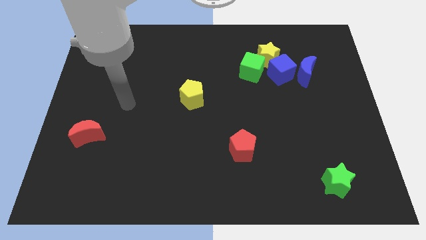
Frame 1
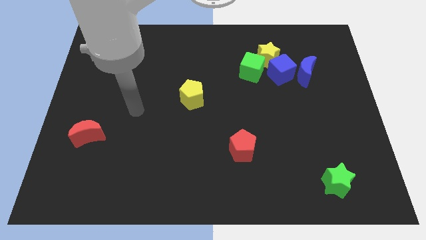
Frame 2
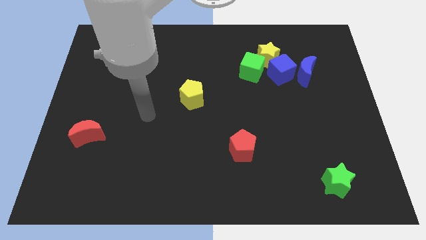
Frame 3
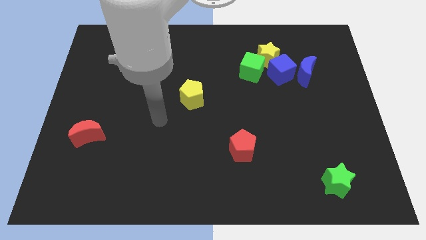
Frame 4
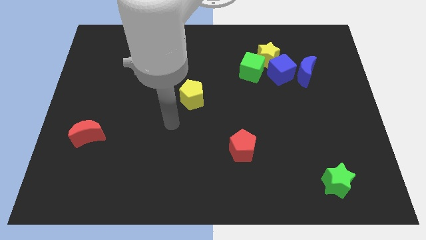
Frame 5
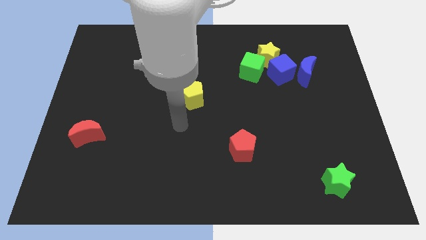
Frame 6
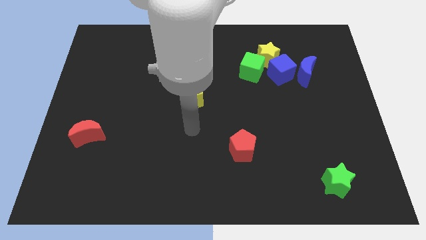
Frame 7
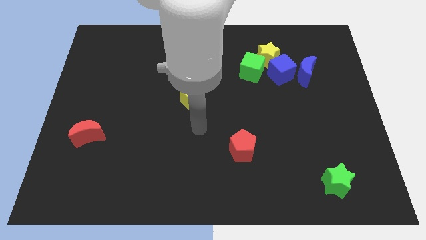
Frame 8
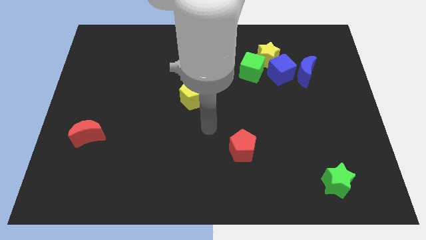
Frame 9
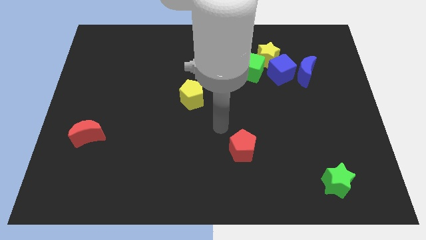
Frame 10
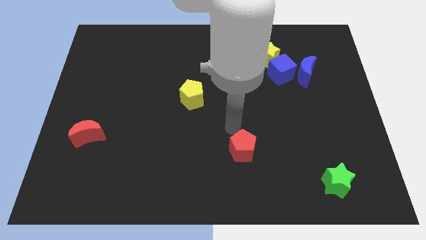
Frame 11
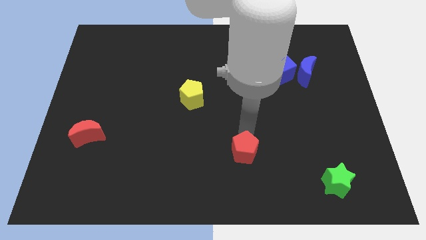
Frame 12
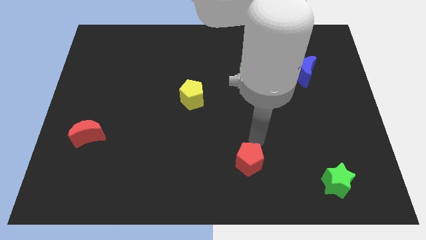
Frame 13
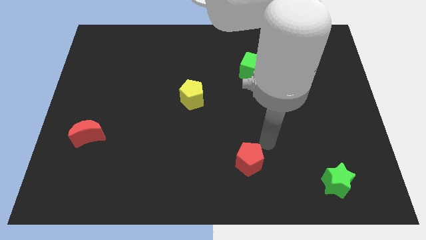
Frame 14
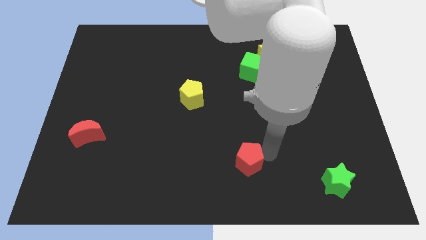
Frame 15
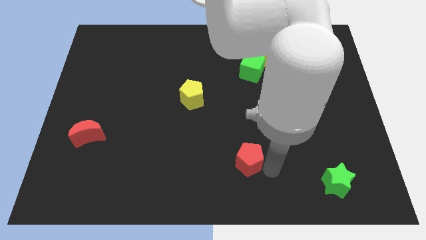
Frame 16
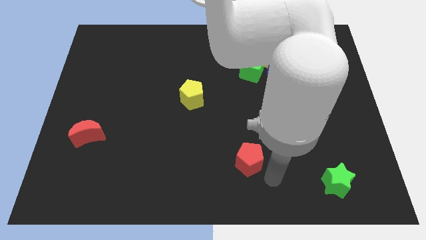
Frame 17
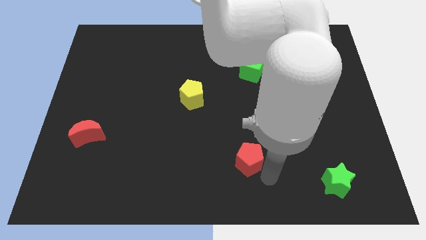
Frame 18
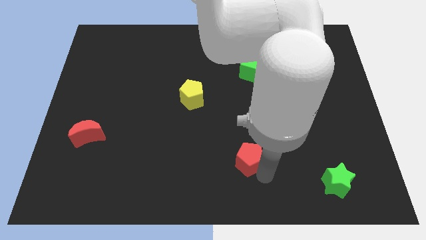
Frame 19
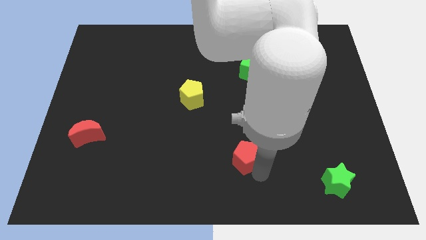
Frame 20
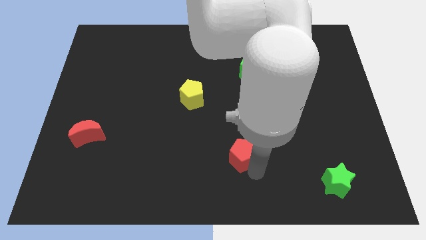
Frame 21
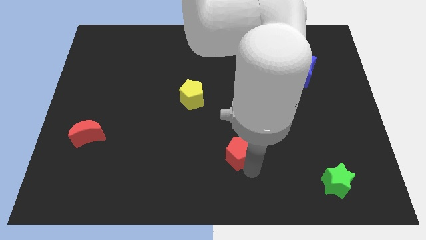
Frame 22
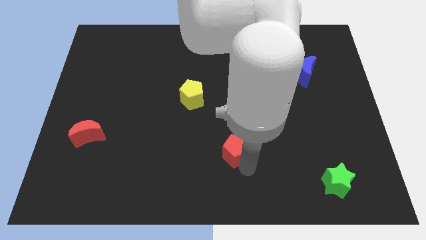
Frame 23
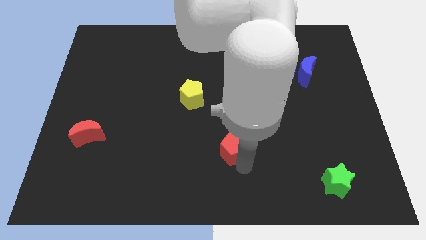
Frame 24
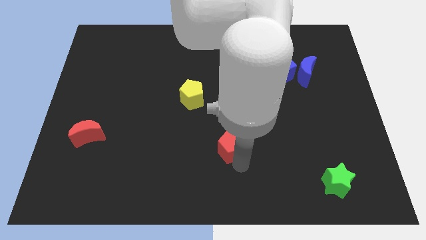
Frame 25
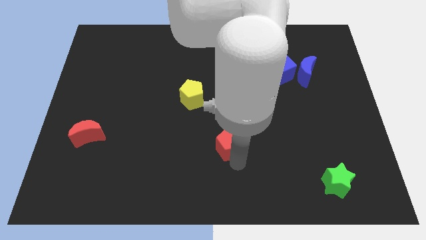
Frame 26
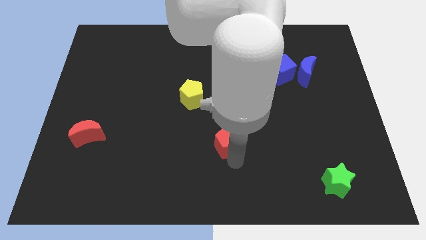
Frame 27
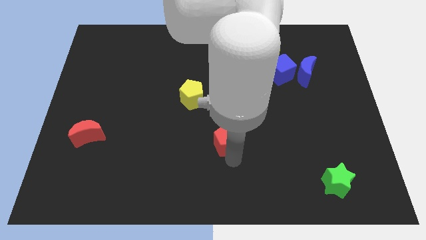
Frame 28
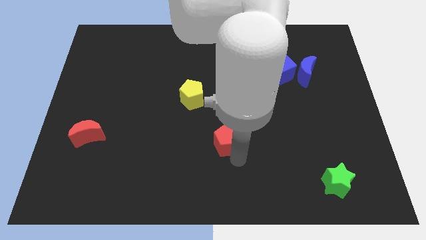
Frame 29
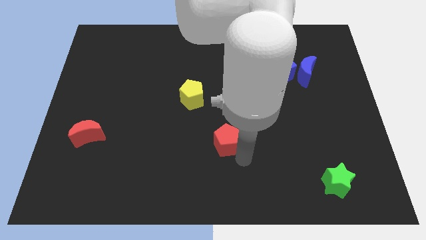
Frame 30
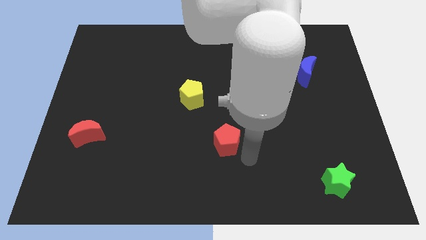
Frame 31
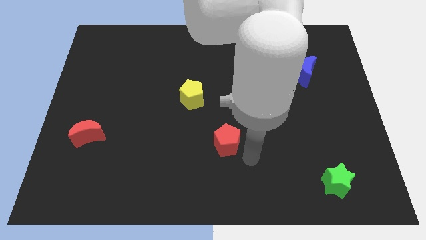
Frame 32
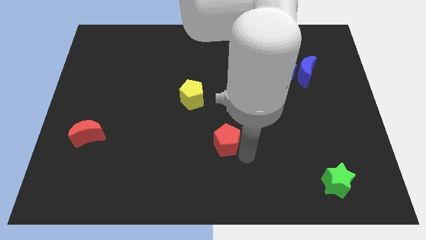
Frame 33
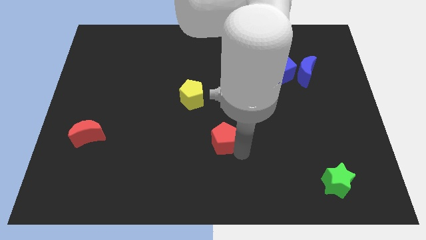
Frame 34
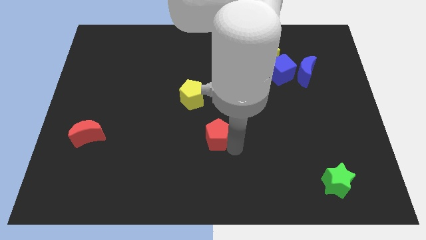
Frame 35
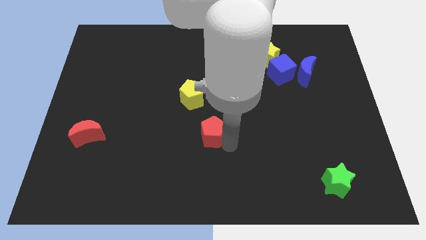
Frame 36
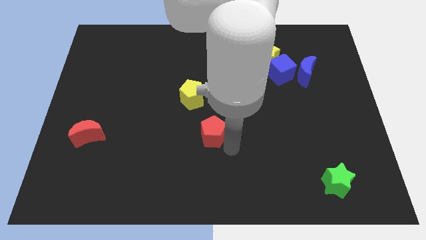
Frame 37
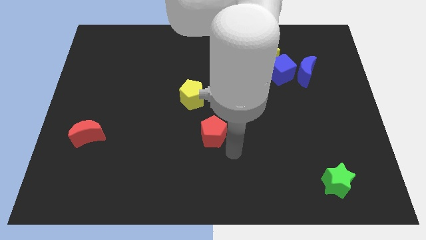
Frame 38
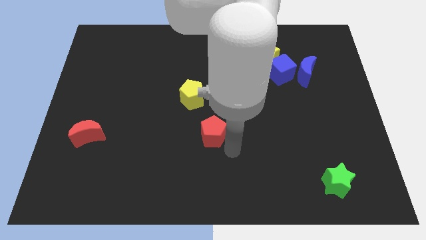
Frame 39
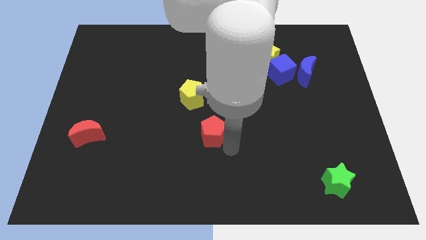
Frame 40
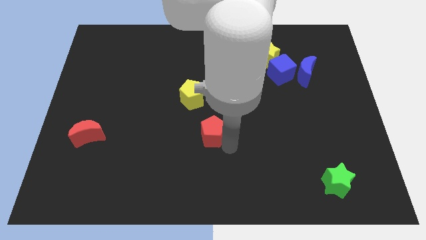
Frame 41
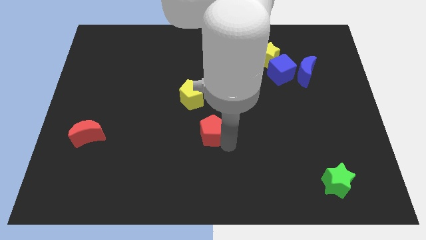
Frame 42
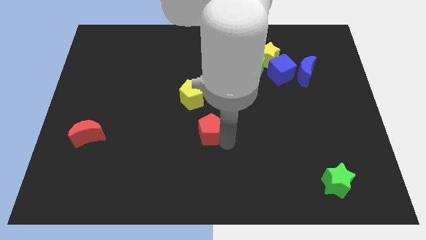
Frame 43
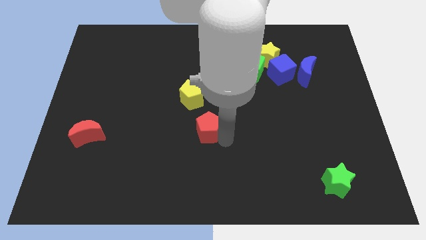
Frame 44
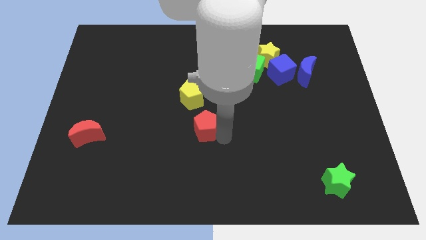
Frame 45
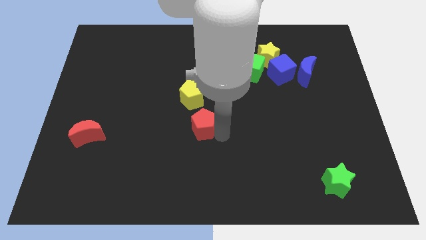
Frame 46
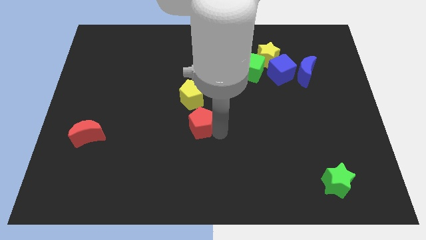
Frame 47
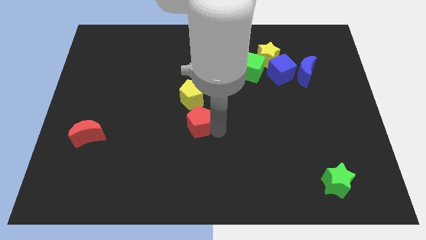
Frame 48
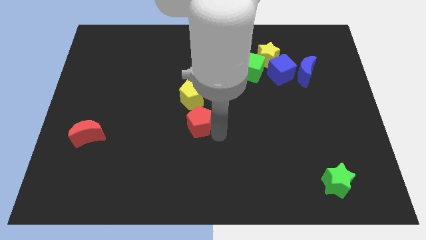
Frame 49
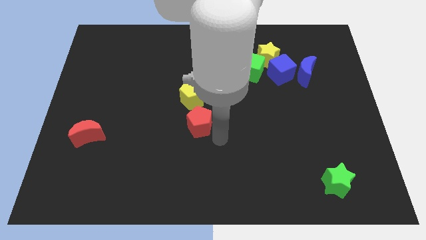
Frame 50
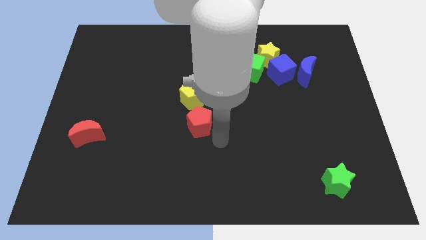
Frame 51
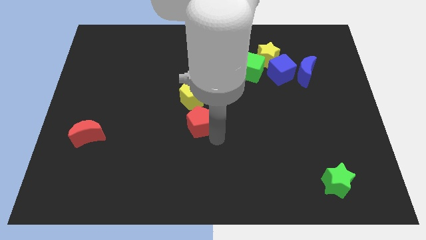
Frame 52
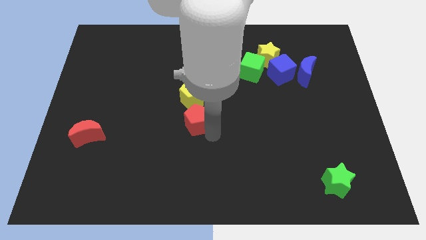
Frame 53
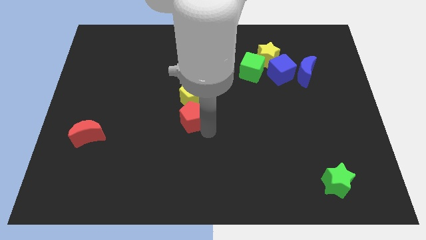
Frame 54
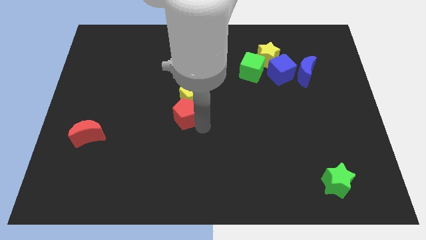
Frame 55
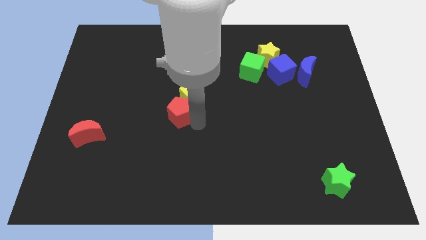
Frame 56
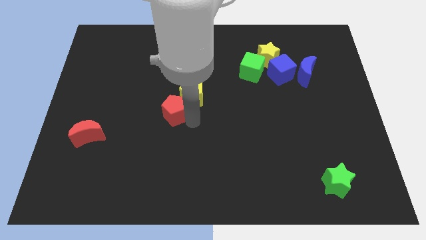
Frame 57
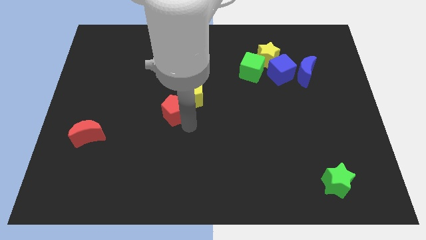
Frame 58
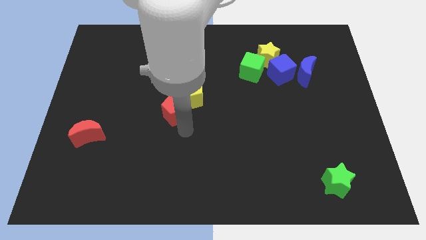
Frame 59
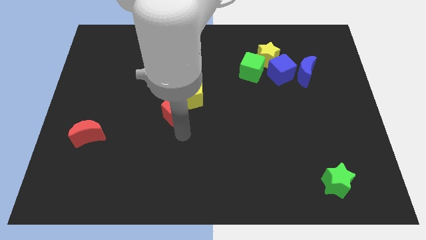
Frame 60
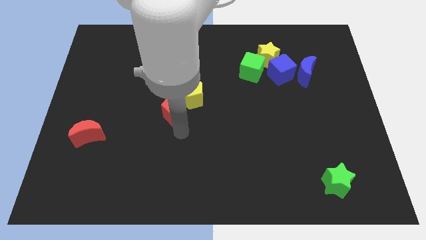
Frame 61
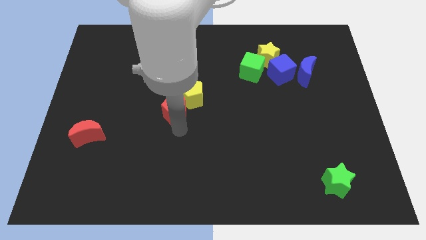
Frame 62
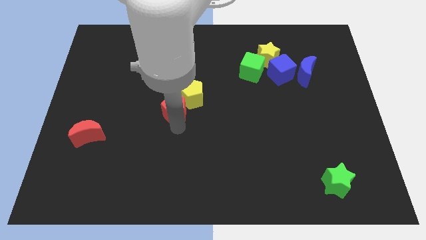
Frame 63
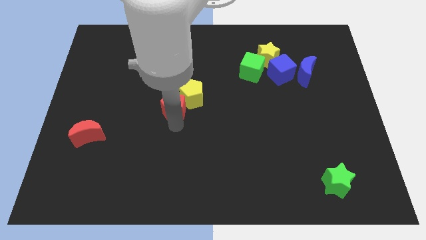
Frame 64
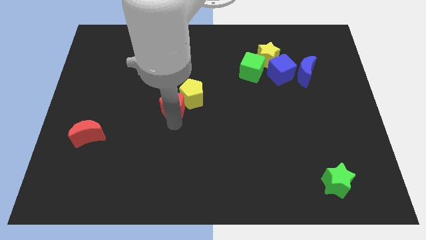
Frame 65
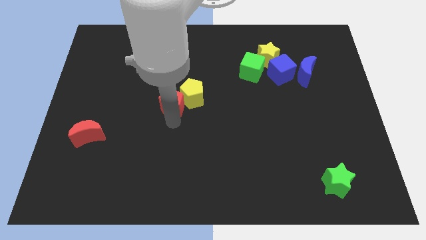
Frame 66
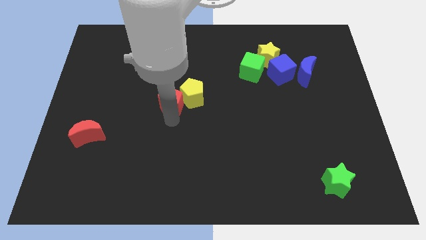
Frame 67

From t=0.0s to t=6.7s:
push the red pentagon up and to the left

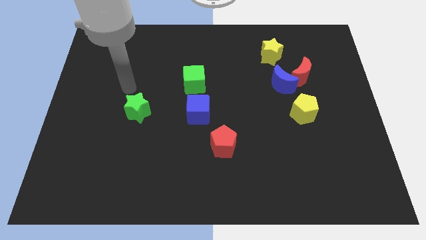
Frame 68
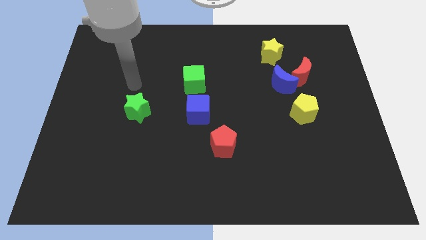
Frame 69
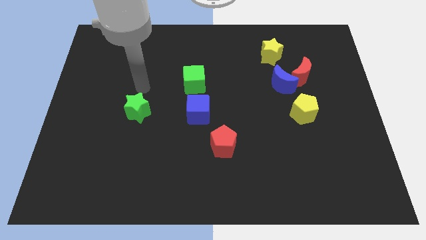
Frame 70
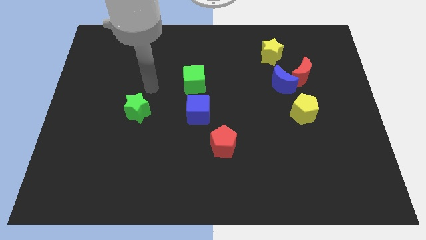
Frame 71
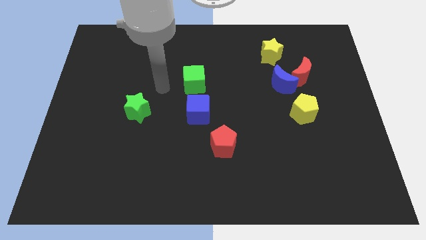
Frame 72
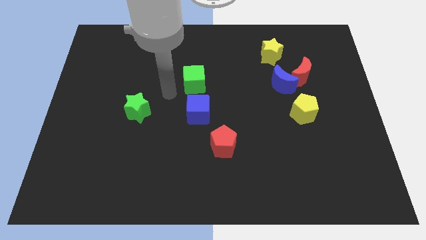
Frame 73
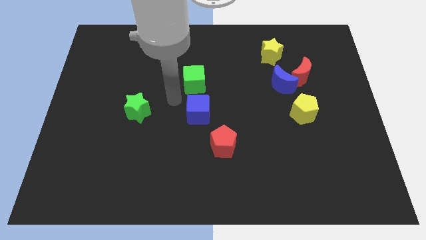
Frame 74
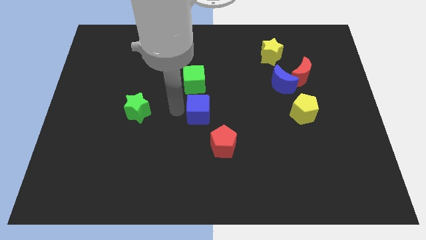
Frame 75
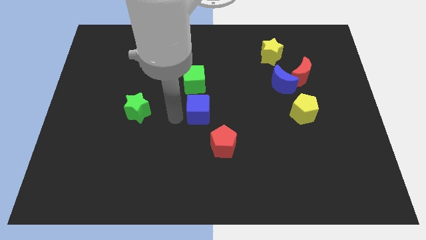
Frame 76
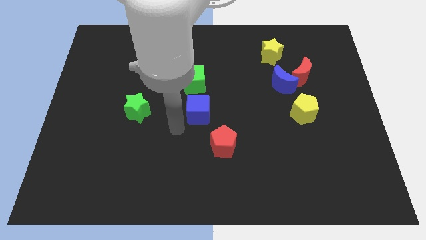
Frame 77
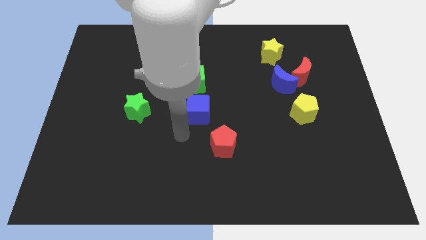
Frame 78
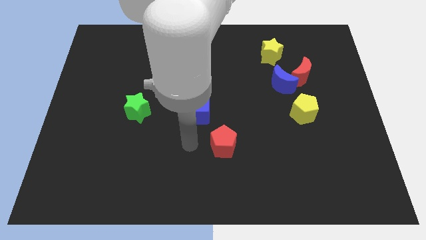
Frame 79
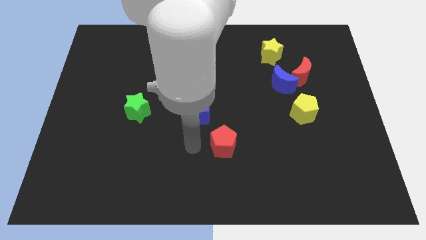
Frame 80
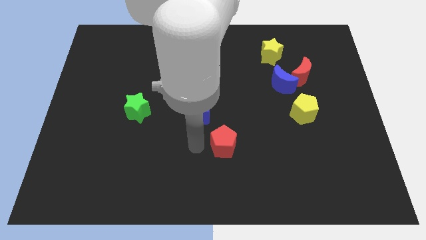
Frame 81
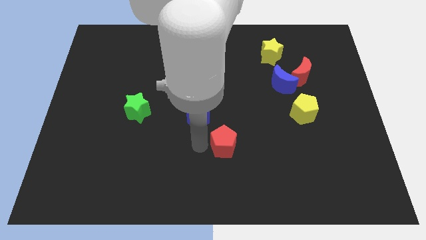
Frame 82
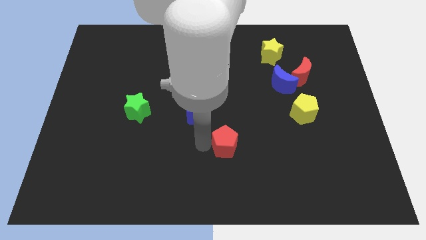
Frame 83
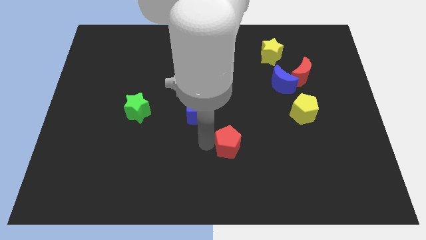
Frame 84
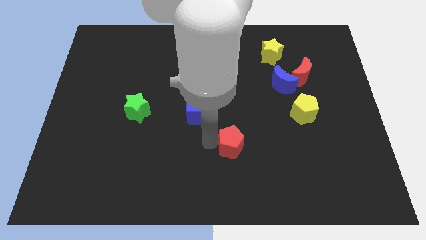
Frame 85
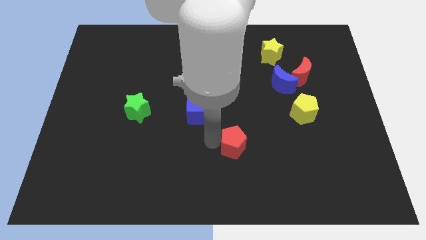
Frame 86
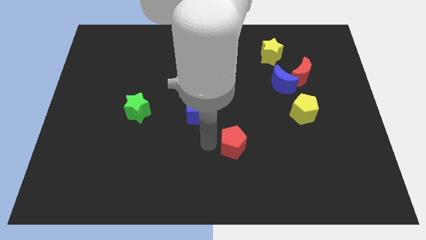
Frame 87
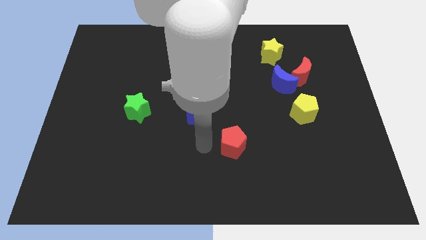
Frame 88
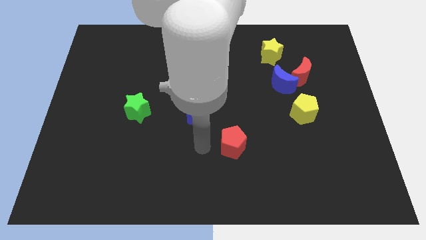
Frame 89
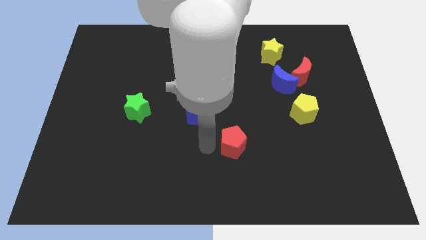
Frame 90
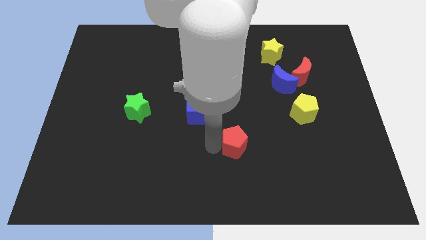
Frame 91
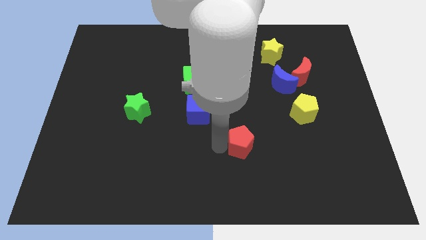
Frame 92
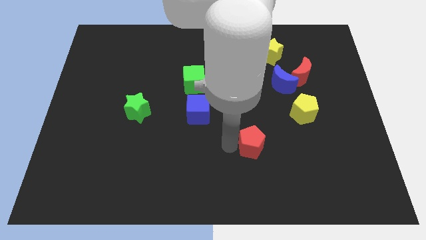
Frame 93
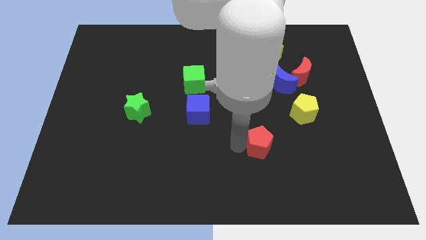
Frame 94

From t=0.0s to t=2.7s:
move the red pentagon slightly to the right
